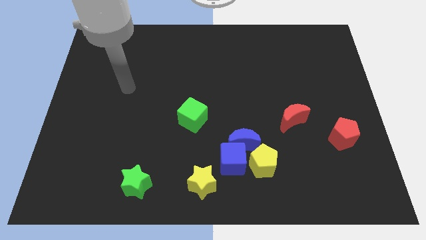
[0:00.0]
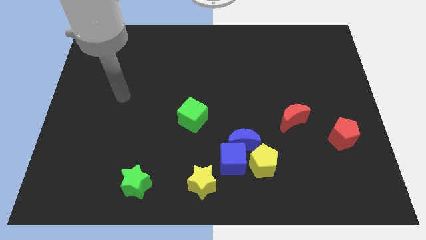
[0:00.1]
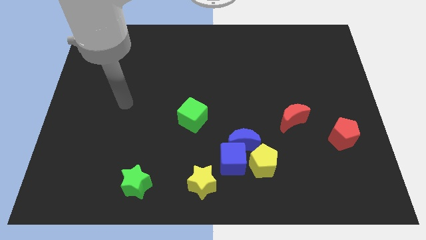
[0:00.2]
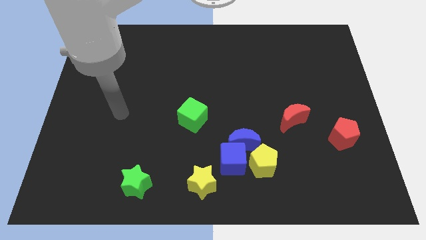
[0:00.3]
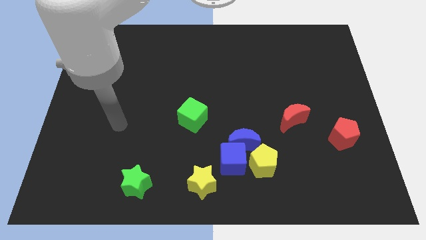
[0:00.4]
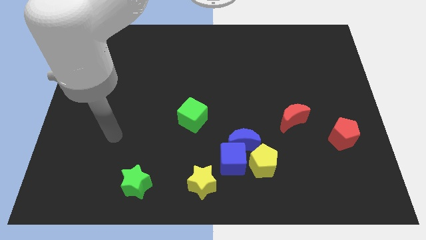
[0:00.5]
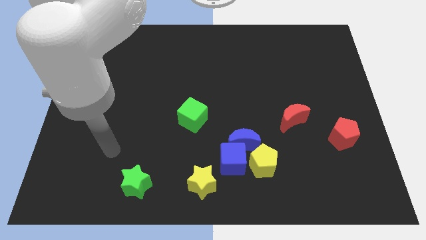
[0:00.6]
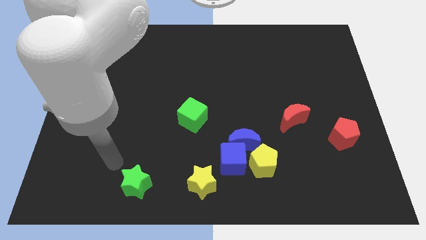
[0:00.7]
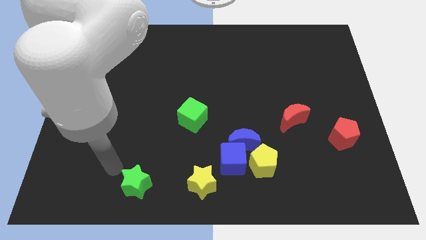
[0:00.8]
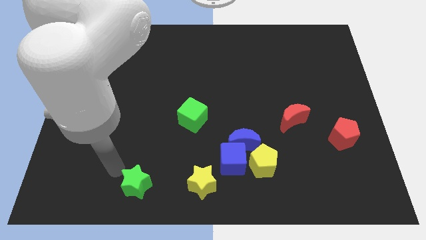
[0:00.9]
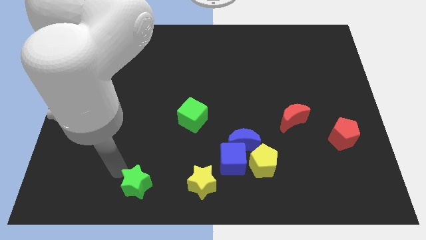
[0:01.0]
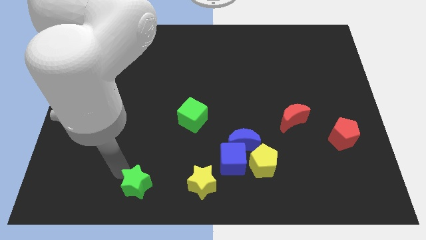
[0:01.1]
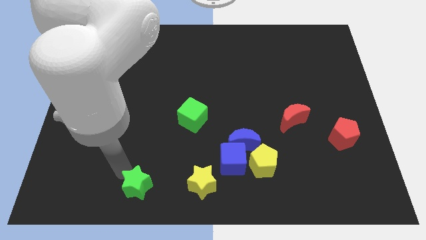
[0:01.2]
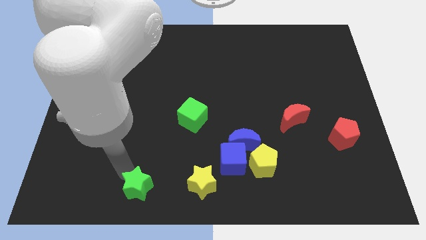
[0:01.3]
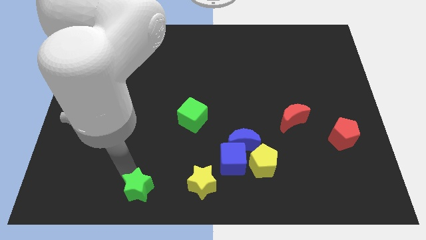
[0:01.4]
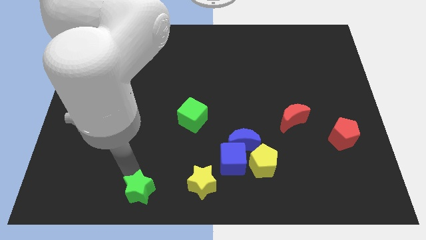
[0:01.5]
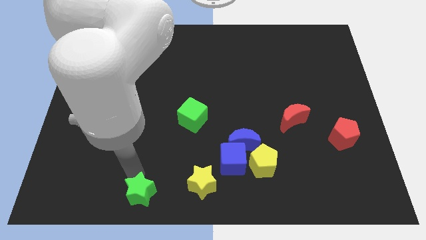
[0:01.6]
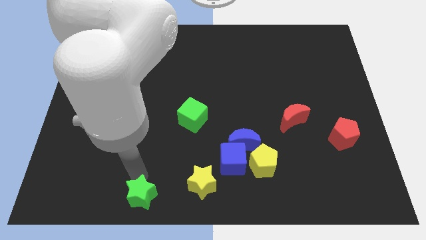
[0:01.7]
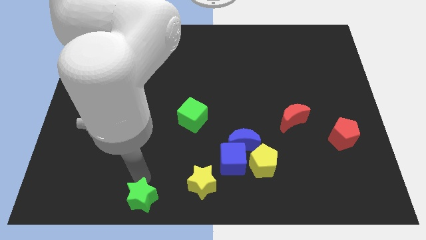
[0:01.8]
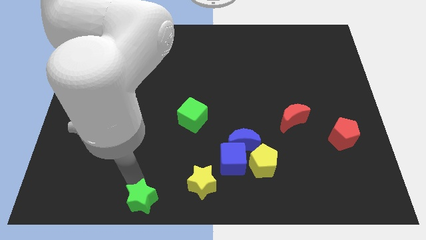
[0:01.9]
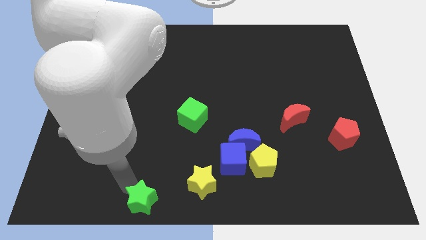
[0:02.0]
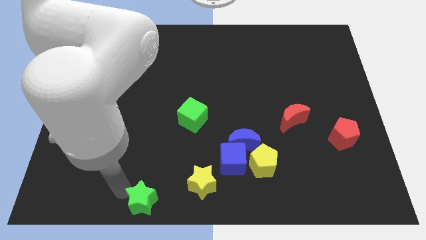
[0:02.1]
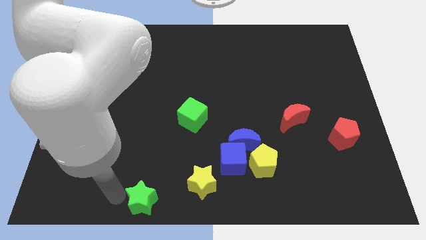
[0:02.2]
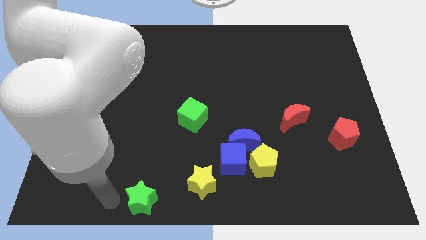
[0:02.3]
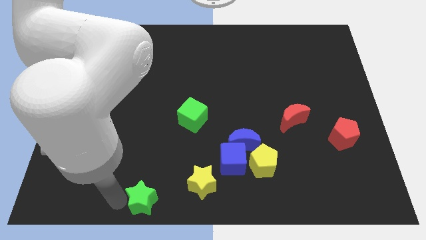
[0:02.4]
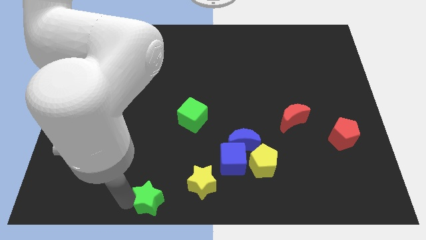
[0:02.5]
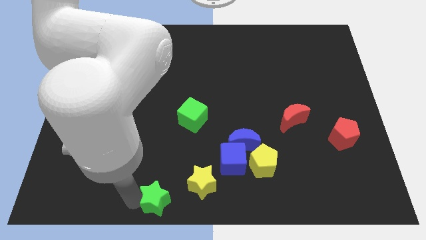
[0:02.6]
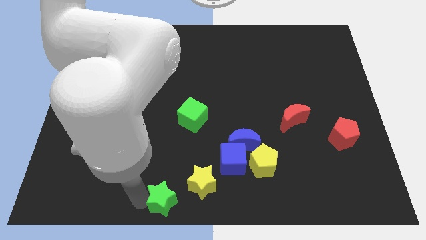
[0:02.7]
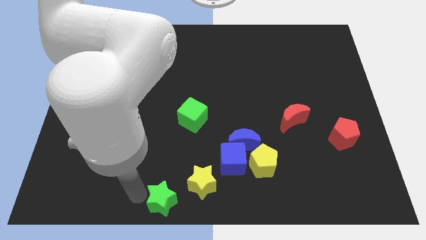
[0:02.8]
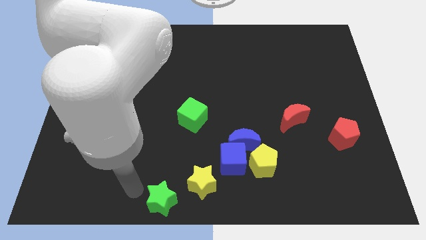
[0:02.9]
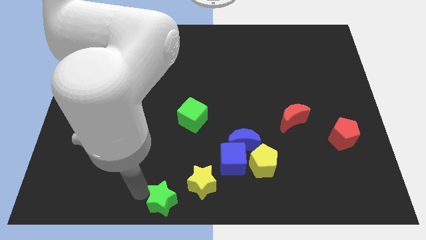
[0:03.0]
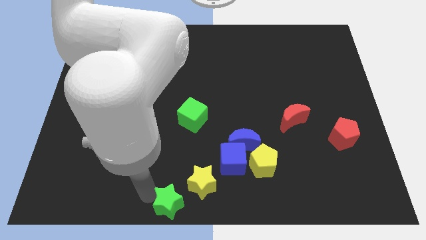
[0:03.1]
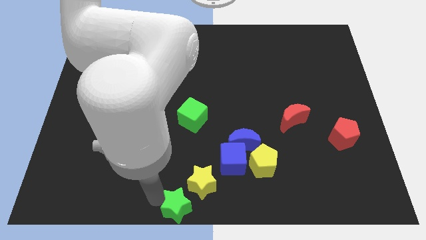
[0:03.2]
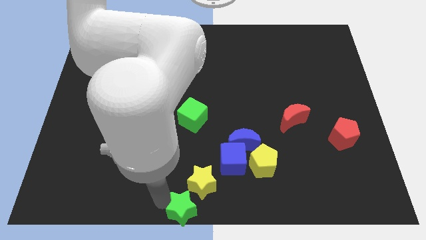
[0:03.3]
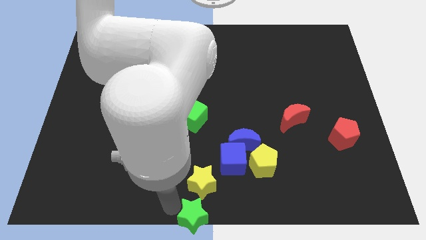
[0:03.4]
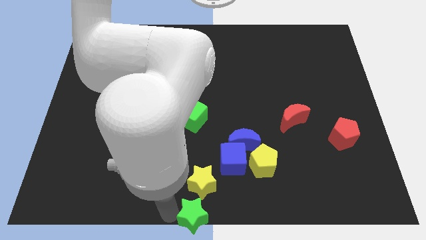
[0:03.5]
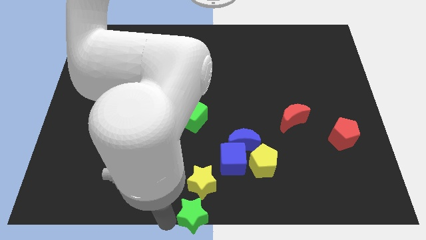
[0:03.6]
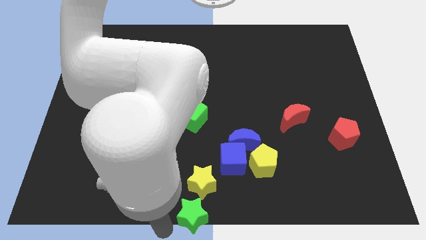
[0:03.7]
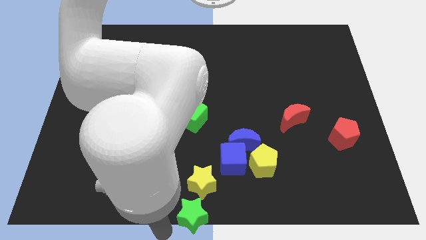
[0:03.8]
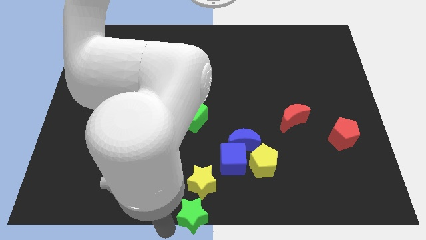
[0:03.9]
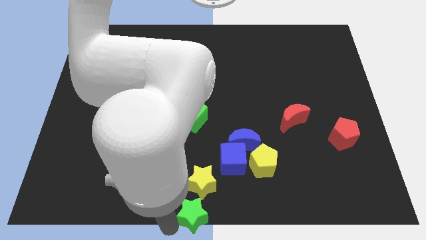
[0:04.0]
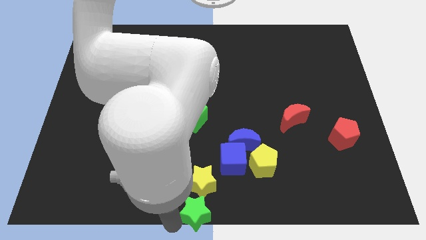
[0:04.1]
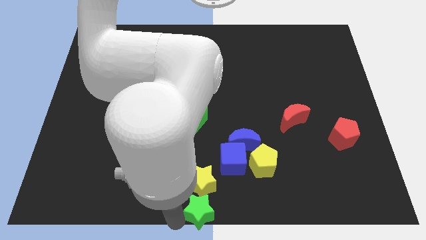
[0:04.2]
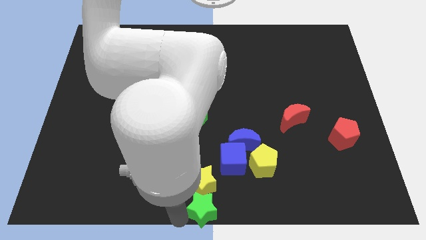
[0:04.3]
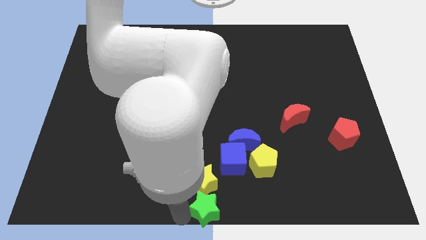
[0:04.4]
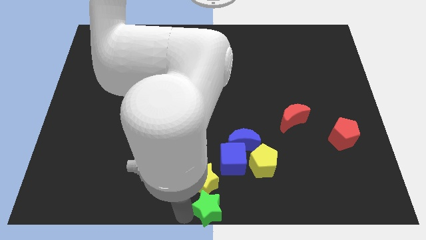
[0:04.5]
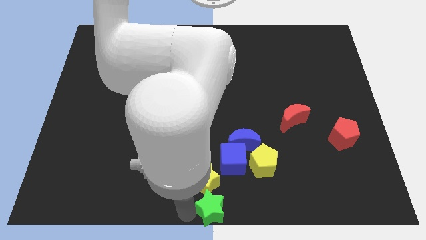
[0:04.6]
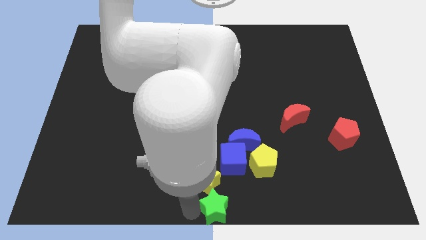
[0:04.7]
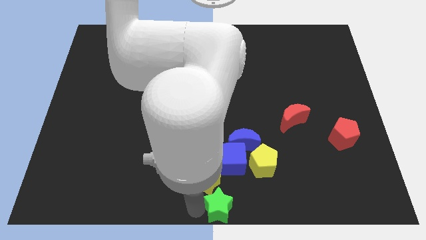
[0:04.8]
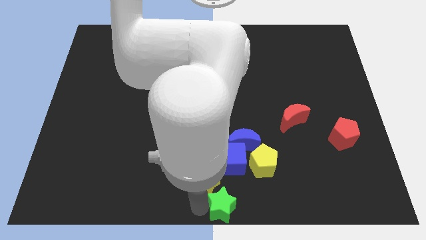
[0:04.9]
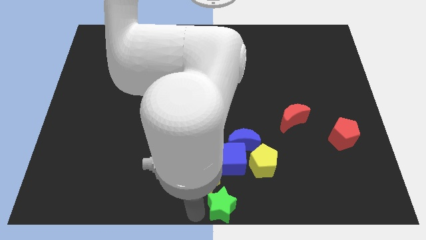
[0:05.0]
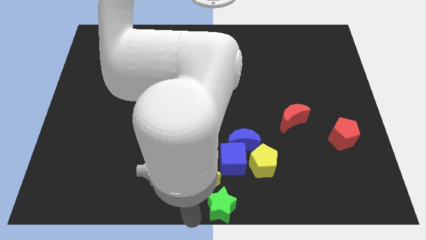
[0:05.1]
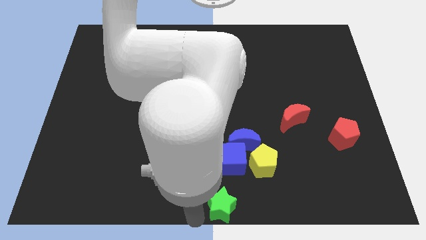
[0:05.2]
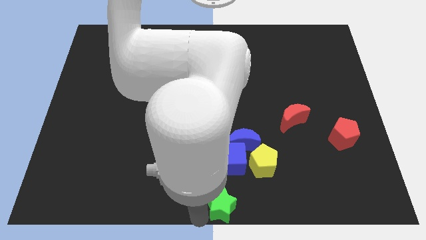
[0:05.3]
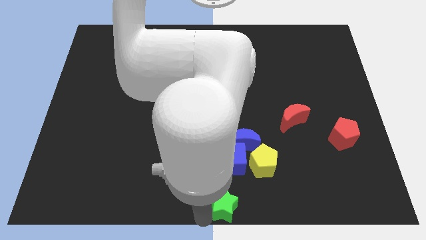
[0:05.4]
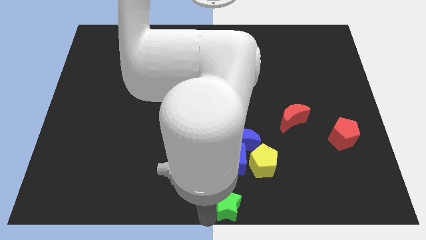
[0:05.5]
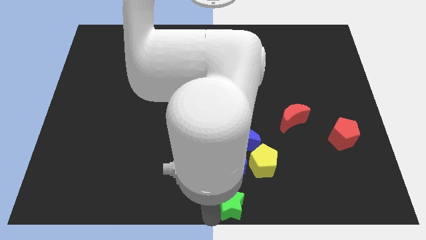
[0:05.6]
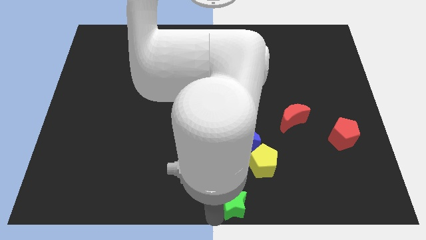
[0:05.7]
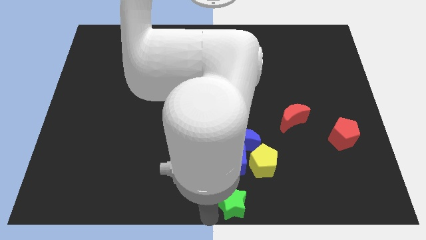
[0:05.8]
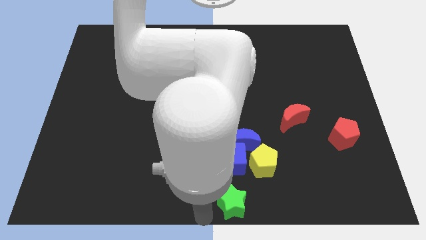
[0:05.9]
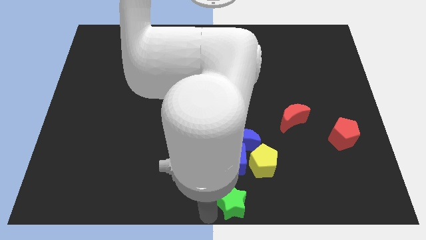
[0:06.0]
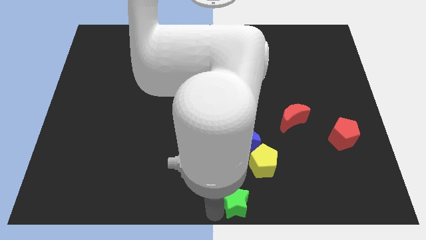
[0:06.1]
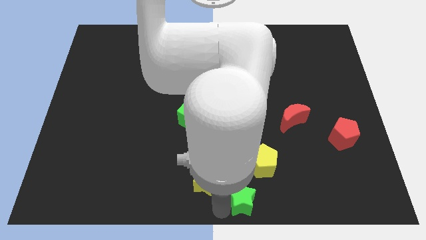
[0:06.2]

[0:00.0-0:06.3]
move the green star to the right

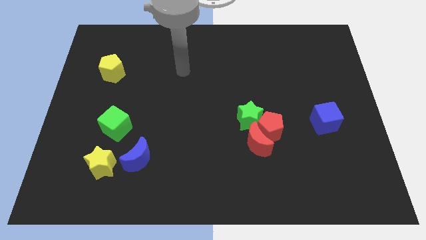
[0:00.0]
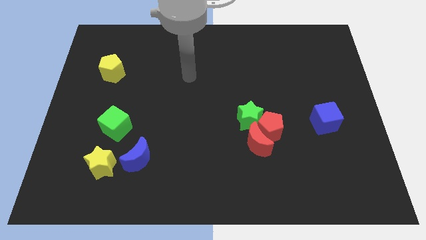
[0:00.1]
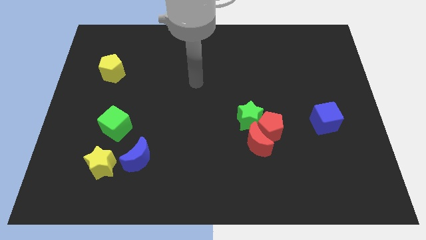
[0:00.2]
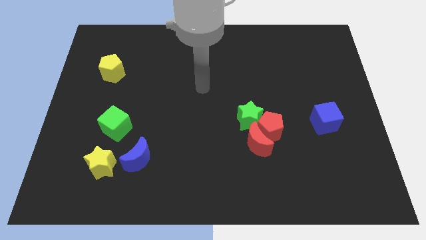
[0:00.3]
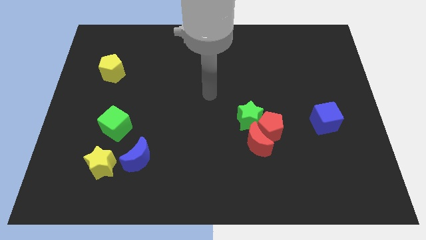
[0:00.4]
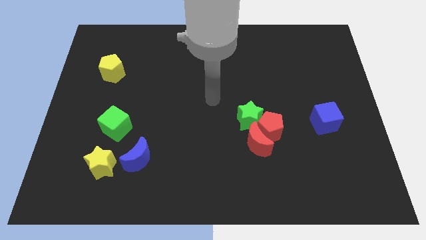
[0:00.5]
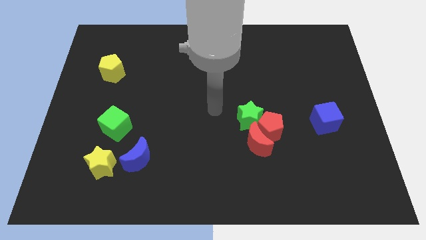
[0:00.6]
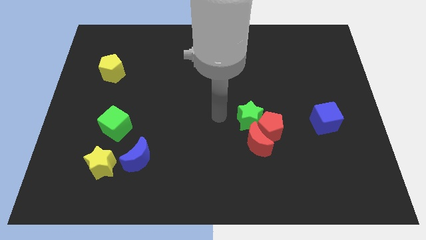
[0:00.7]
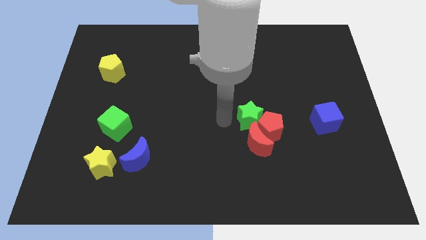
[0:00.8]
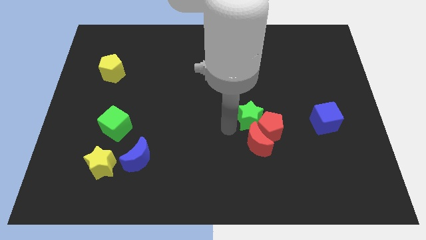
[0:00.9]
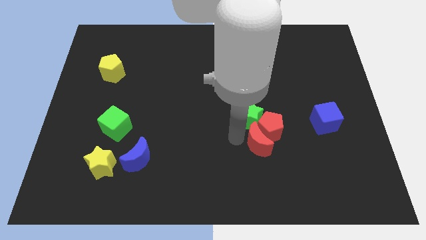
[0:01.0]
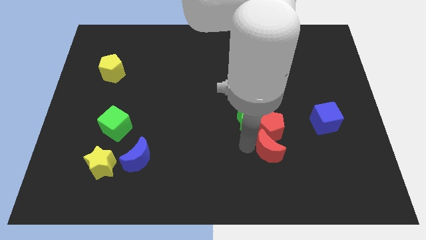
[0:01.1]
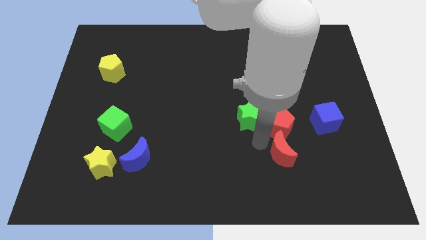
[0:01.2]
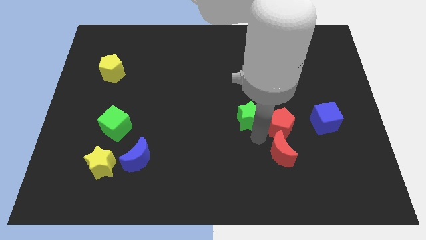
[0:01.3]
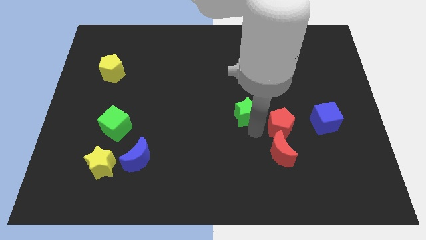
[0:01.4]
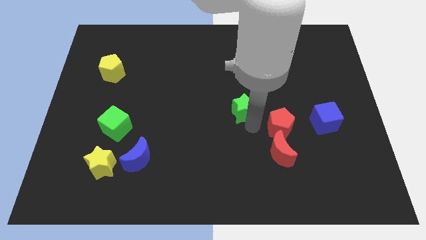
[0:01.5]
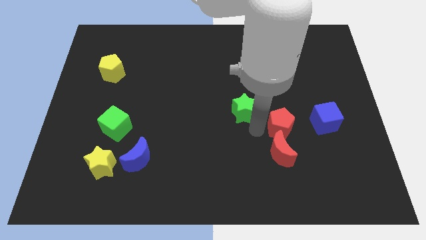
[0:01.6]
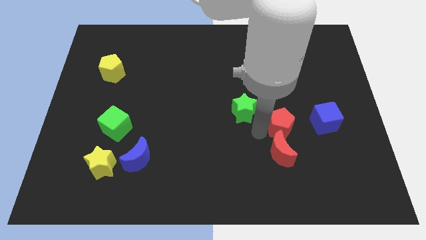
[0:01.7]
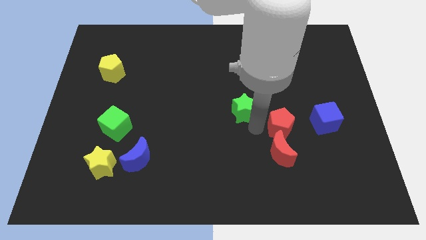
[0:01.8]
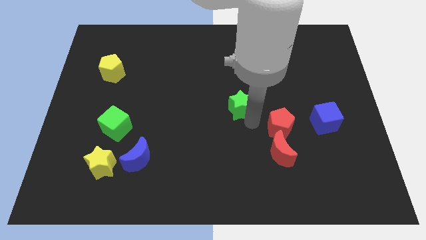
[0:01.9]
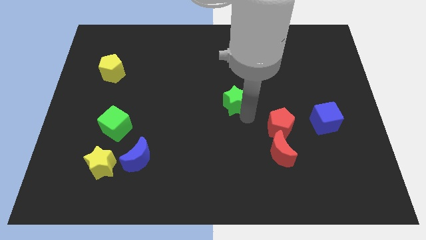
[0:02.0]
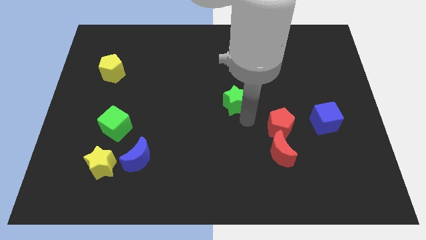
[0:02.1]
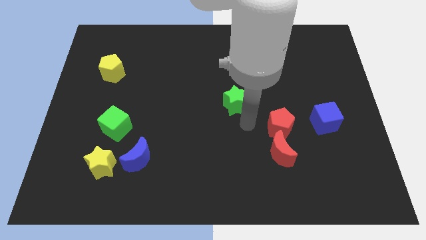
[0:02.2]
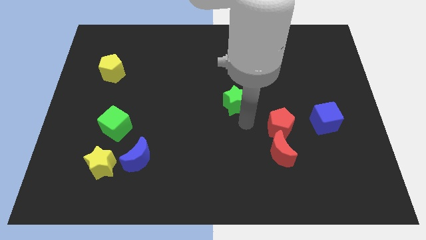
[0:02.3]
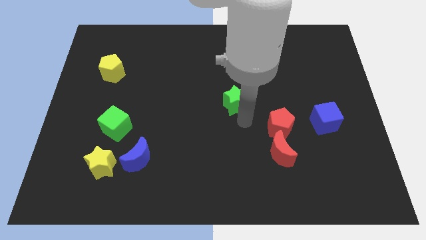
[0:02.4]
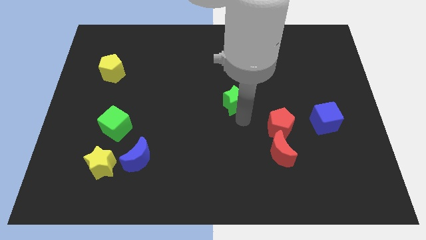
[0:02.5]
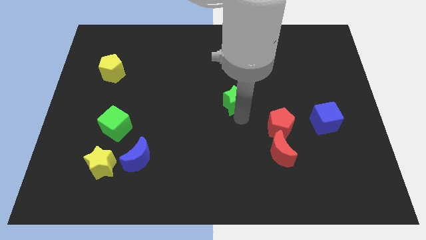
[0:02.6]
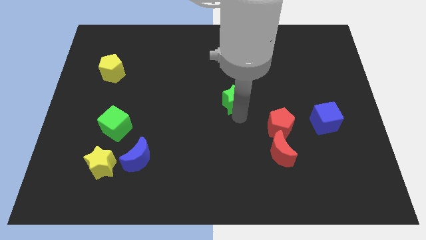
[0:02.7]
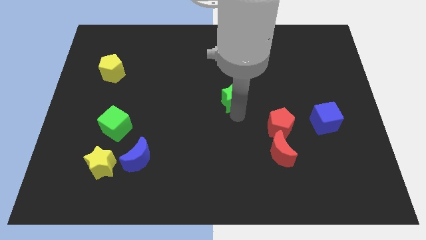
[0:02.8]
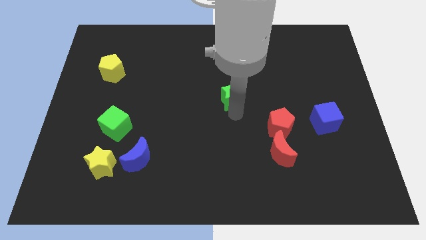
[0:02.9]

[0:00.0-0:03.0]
move the green star up and left diagonally somewhat
